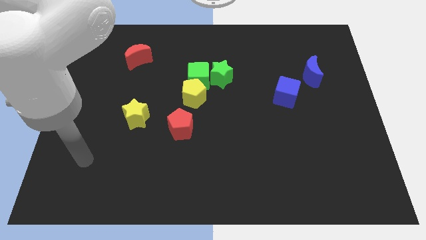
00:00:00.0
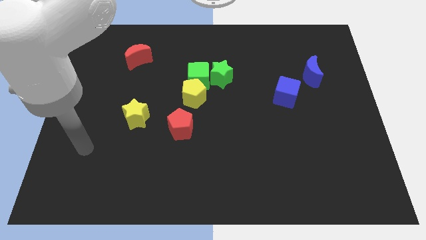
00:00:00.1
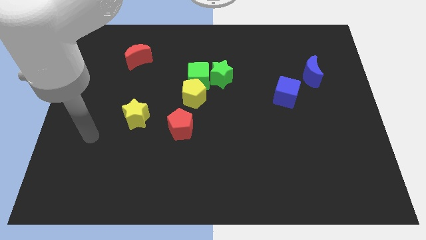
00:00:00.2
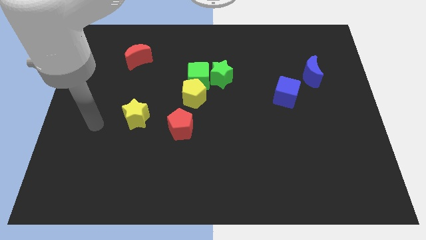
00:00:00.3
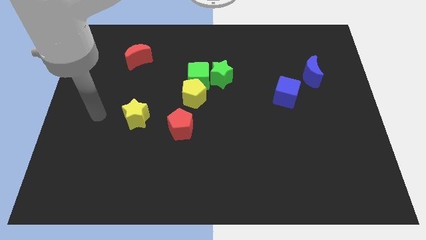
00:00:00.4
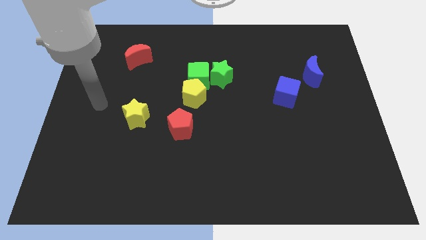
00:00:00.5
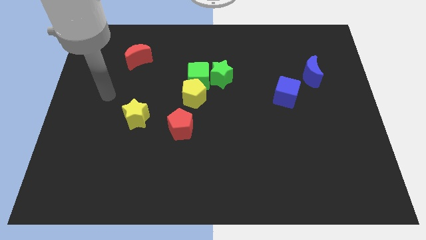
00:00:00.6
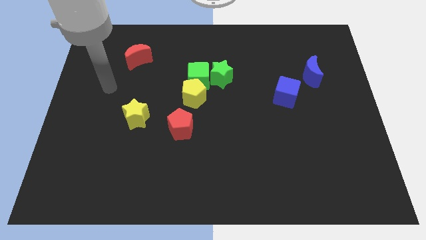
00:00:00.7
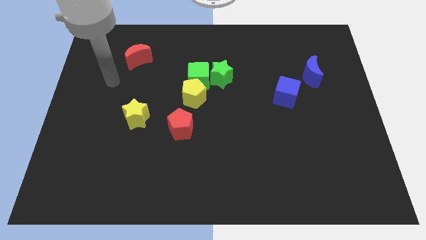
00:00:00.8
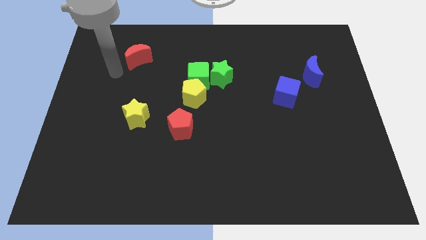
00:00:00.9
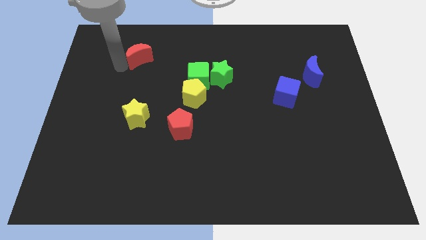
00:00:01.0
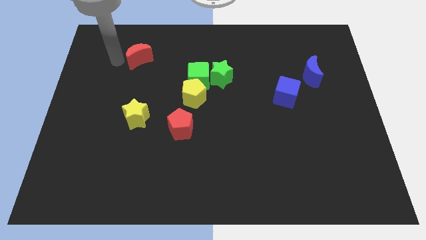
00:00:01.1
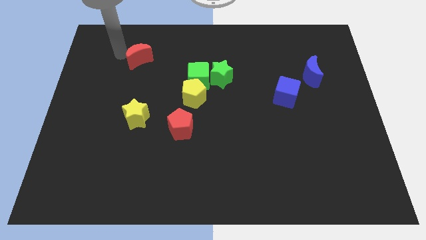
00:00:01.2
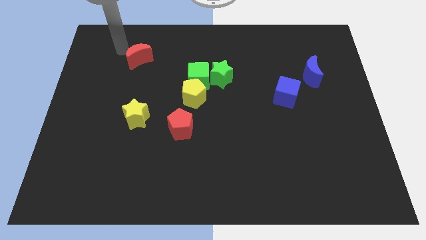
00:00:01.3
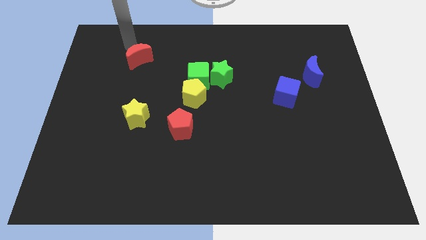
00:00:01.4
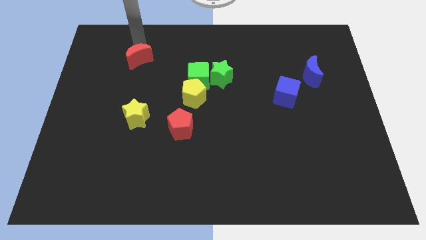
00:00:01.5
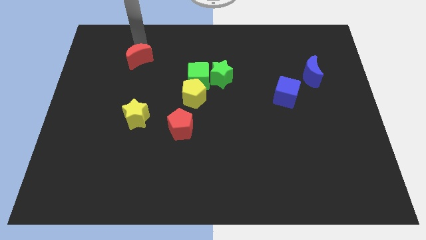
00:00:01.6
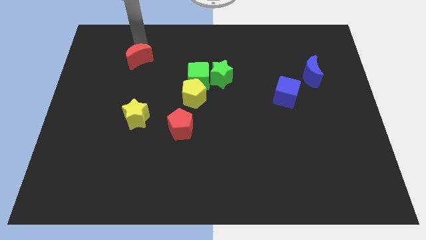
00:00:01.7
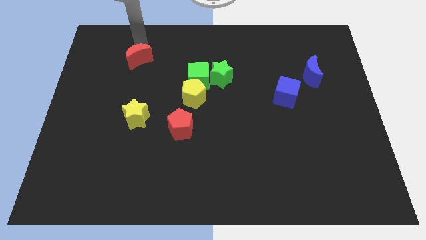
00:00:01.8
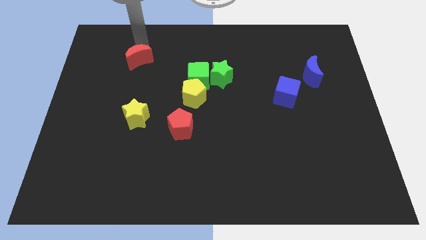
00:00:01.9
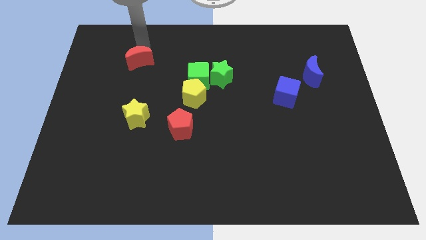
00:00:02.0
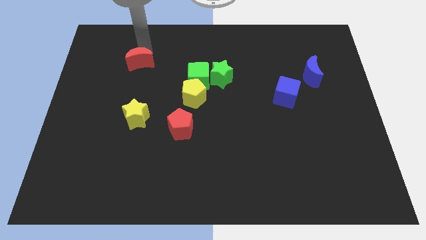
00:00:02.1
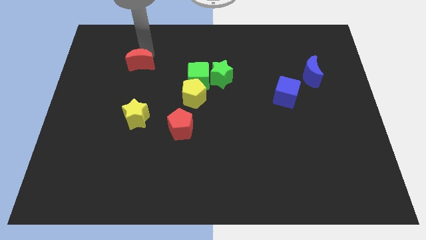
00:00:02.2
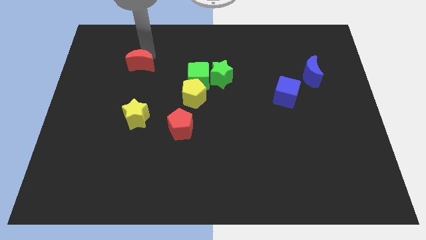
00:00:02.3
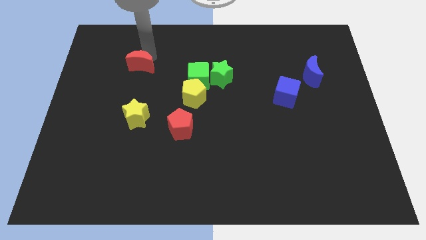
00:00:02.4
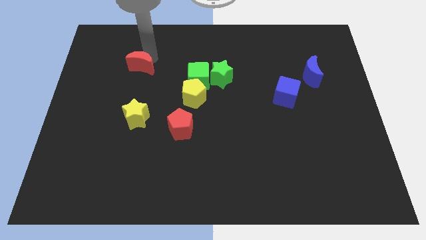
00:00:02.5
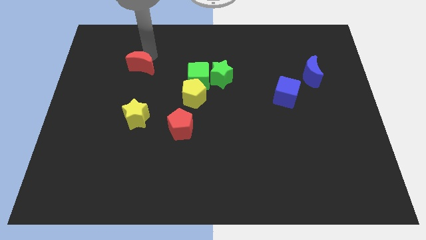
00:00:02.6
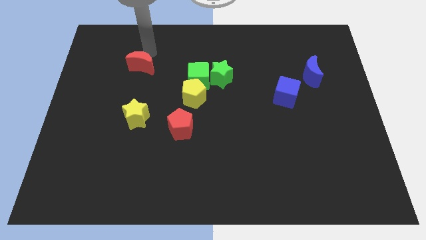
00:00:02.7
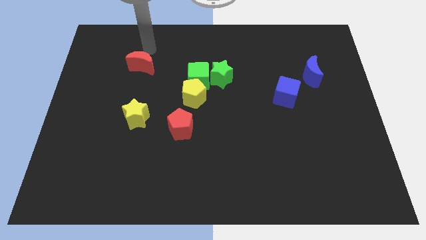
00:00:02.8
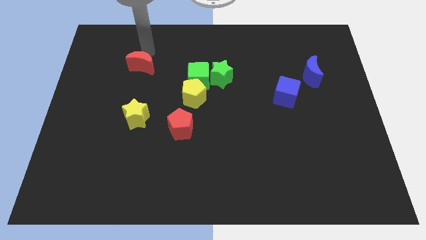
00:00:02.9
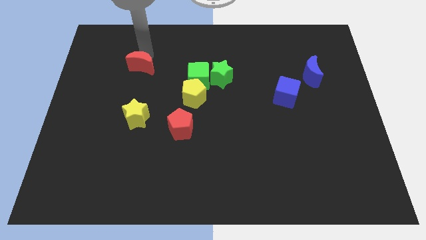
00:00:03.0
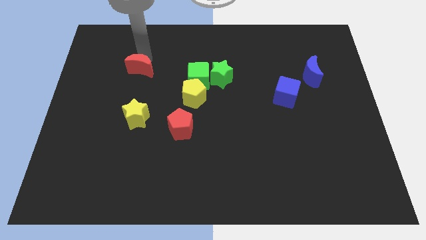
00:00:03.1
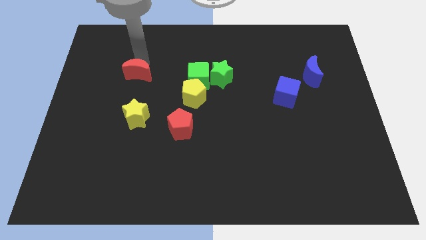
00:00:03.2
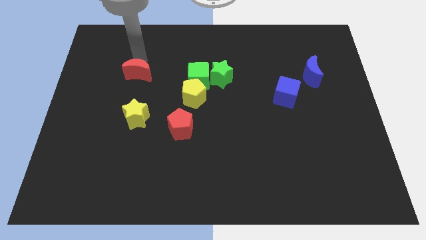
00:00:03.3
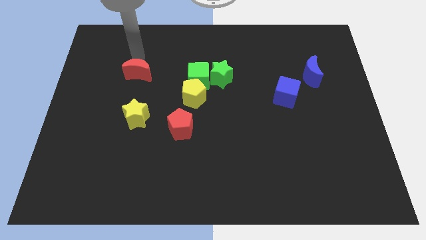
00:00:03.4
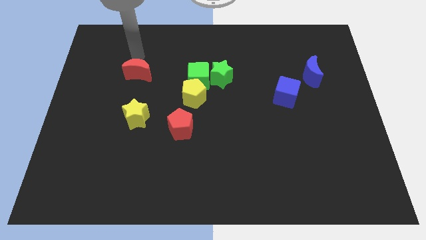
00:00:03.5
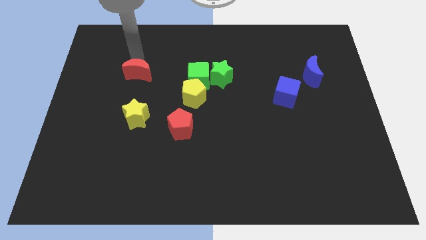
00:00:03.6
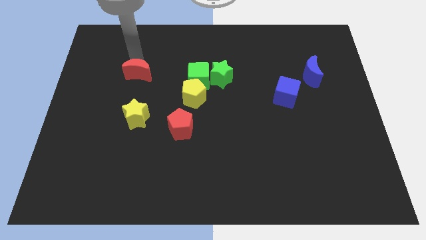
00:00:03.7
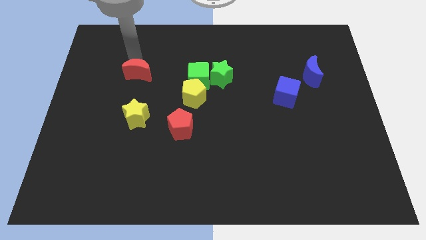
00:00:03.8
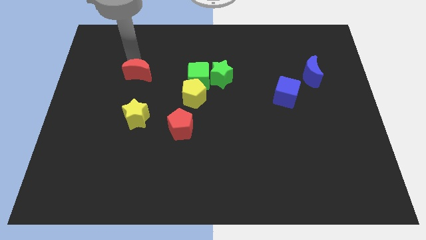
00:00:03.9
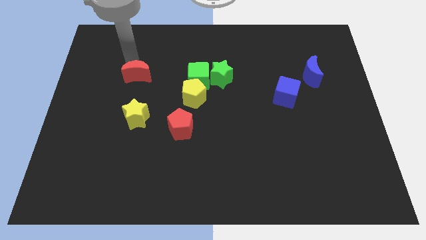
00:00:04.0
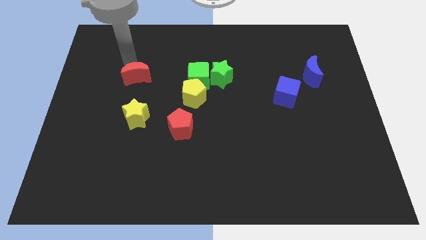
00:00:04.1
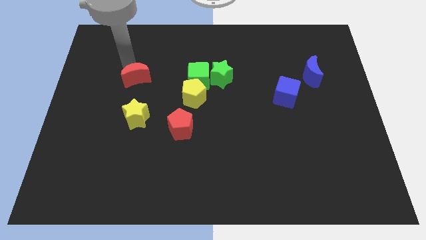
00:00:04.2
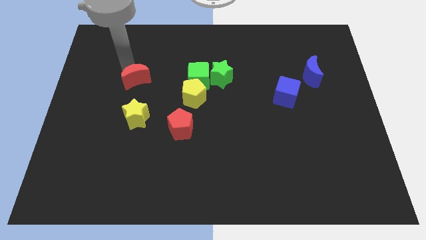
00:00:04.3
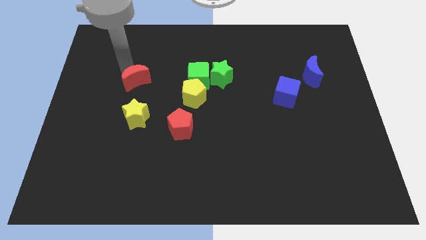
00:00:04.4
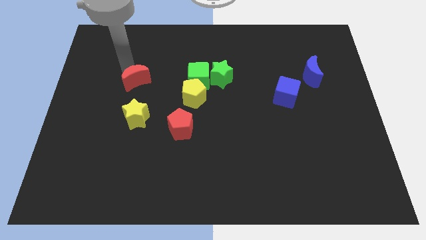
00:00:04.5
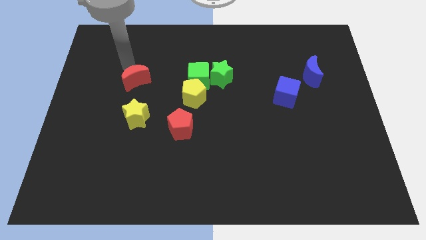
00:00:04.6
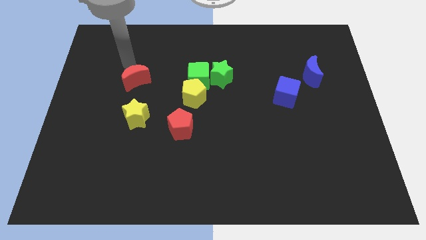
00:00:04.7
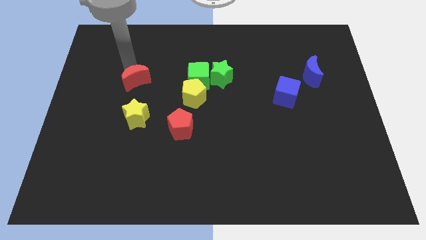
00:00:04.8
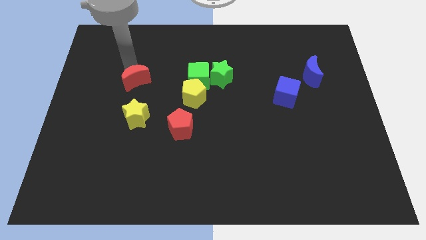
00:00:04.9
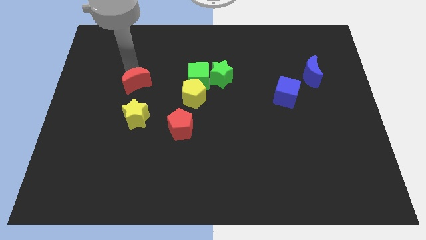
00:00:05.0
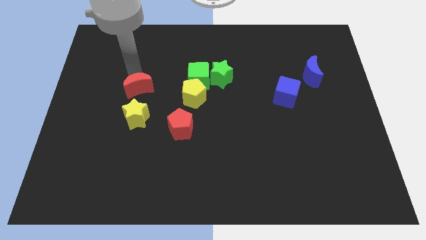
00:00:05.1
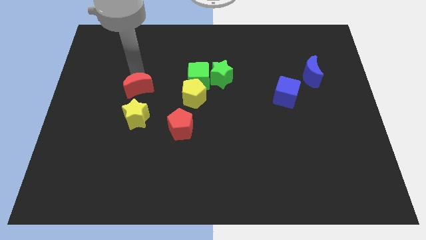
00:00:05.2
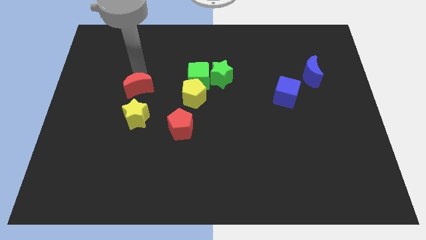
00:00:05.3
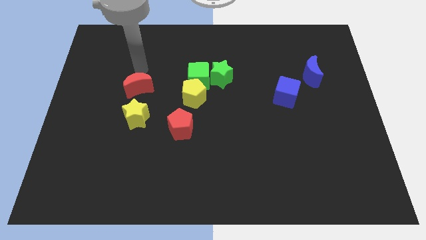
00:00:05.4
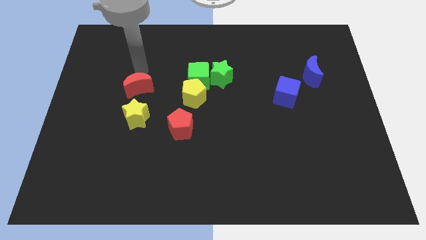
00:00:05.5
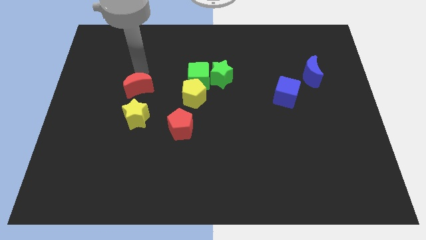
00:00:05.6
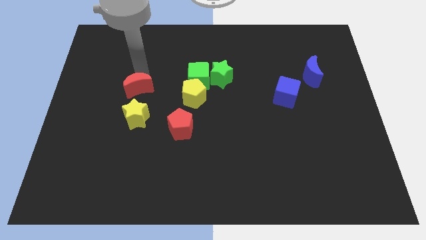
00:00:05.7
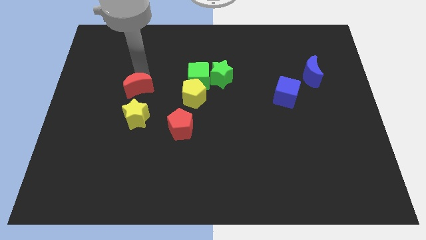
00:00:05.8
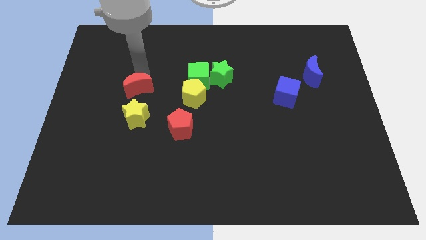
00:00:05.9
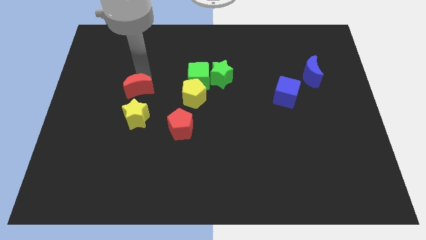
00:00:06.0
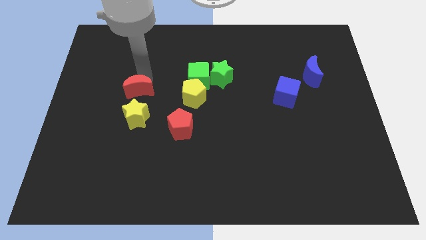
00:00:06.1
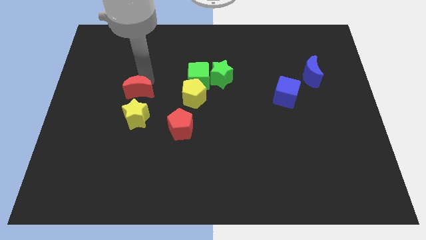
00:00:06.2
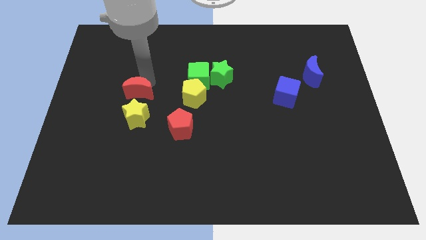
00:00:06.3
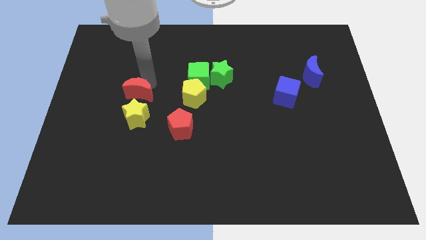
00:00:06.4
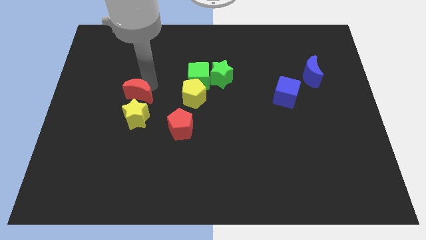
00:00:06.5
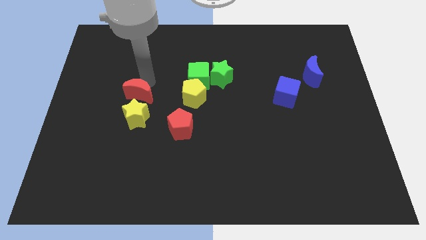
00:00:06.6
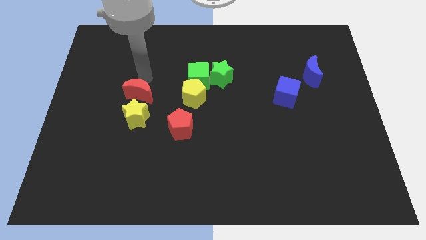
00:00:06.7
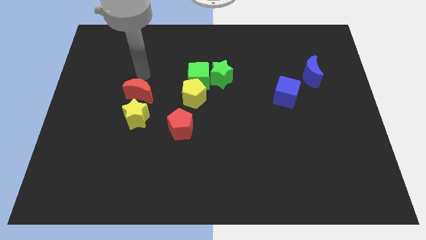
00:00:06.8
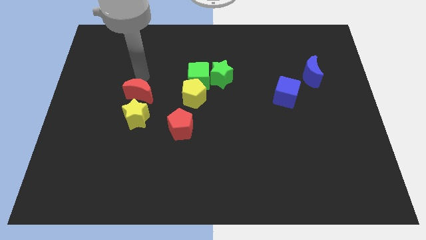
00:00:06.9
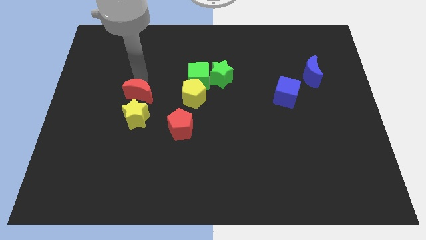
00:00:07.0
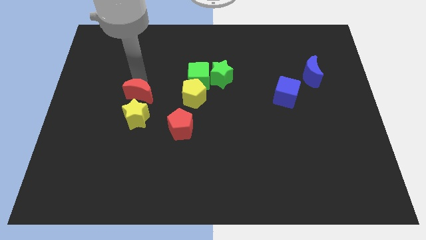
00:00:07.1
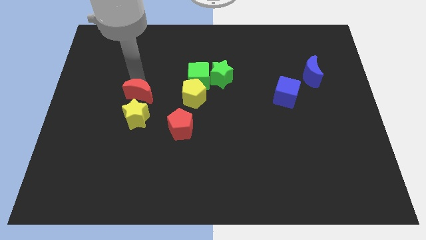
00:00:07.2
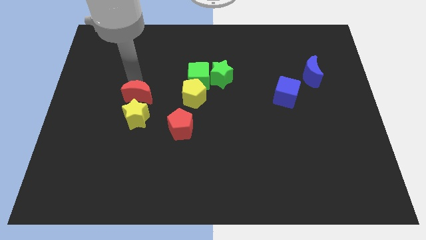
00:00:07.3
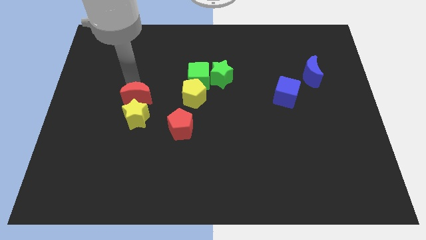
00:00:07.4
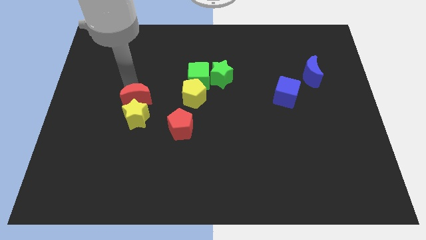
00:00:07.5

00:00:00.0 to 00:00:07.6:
put the red moon next to the yellow star

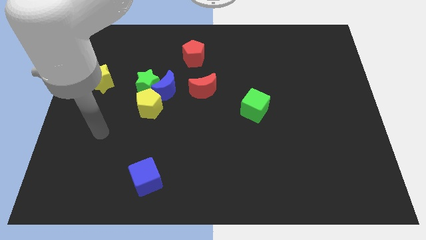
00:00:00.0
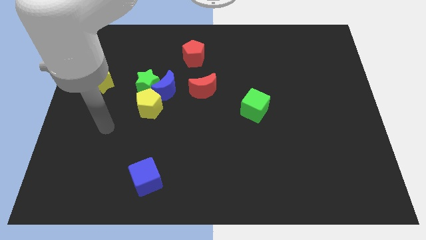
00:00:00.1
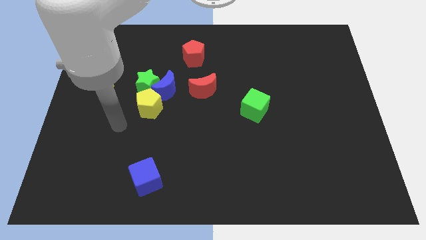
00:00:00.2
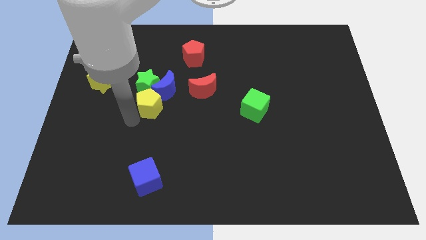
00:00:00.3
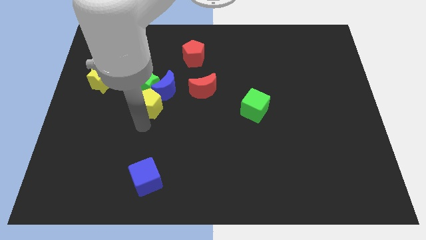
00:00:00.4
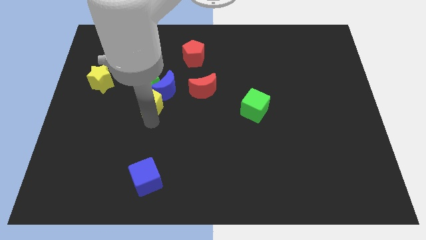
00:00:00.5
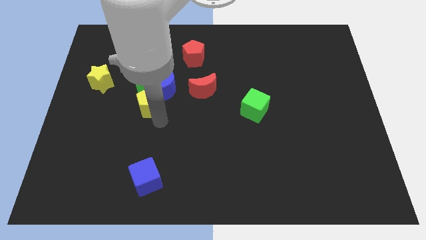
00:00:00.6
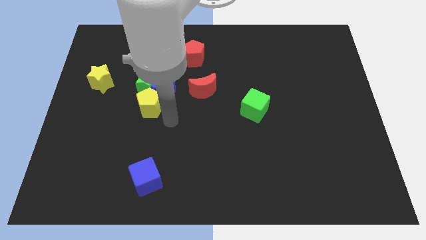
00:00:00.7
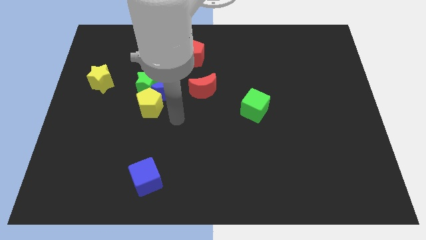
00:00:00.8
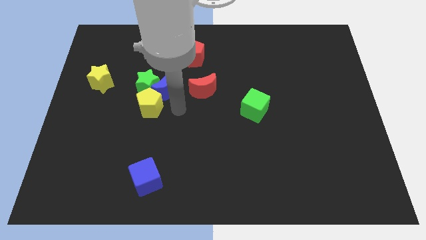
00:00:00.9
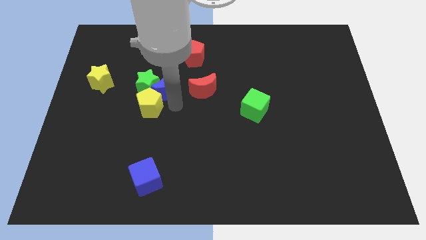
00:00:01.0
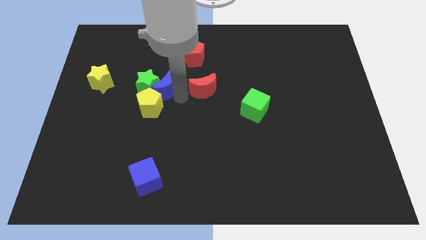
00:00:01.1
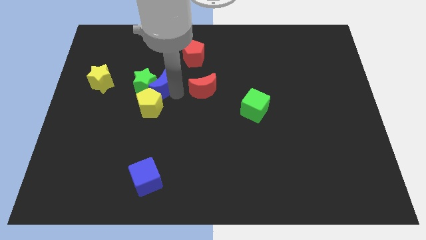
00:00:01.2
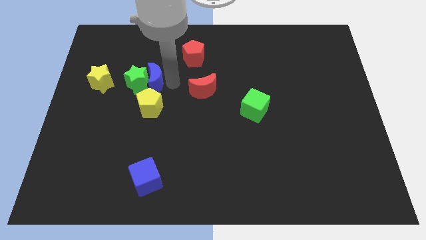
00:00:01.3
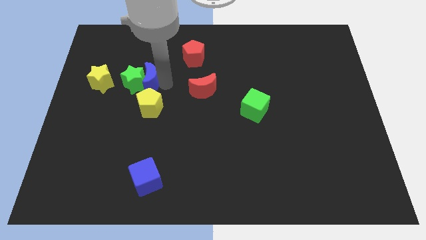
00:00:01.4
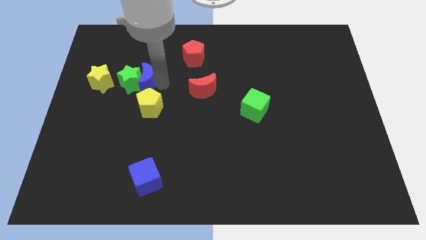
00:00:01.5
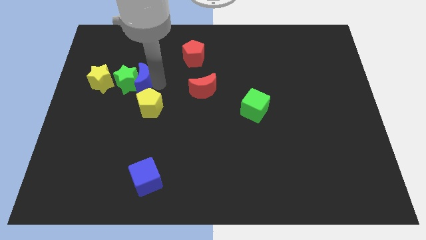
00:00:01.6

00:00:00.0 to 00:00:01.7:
put the green star next to the yellow star
